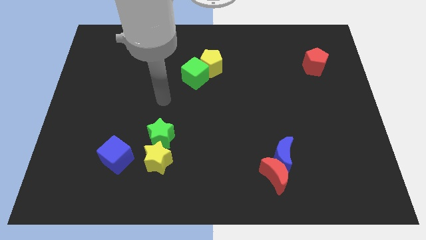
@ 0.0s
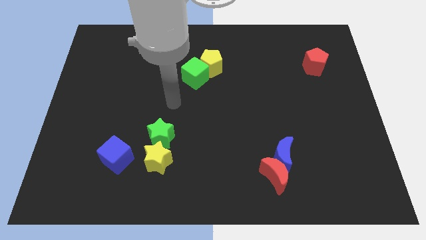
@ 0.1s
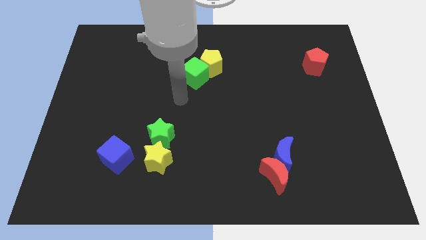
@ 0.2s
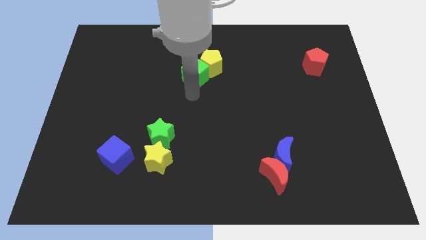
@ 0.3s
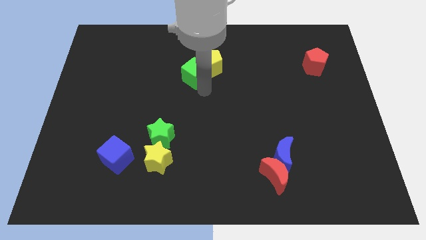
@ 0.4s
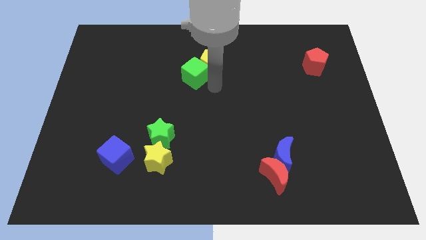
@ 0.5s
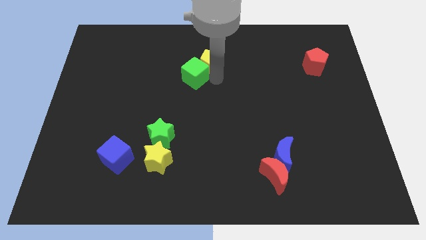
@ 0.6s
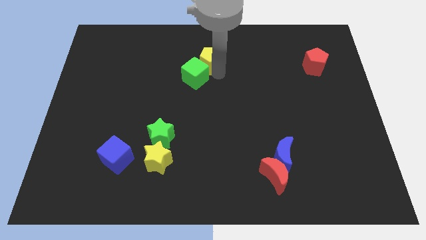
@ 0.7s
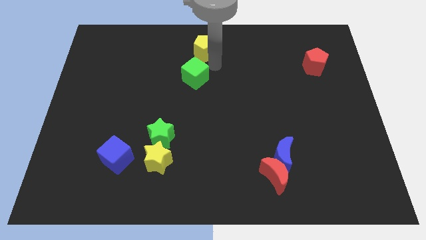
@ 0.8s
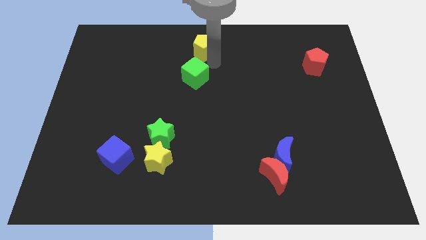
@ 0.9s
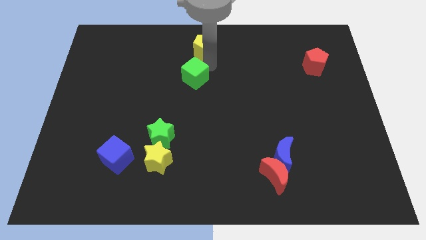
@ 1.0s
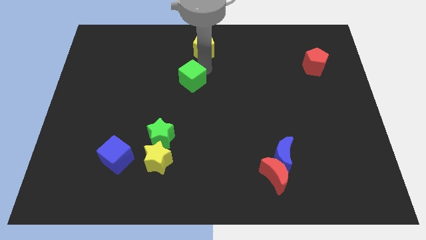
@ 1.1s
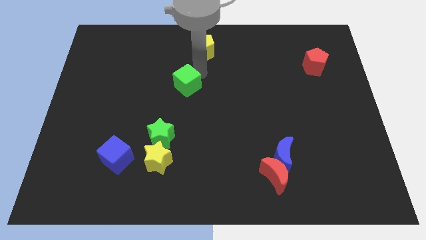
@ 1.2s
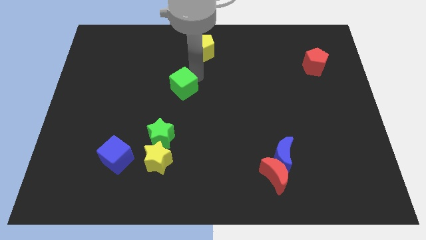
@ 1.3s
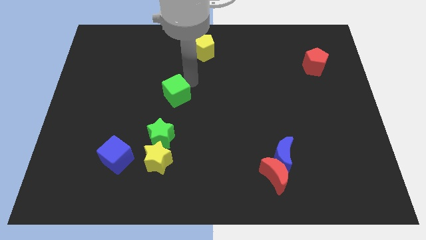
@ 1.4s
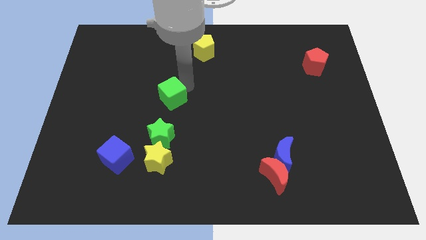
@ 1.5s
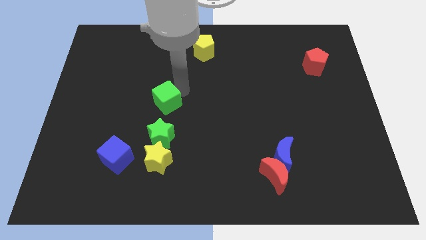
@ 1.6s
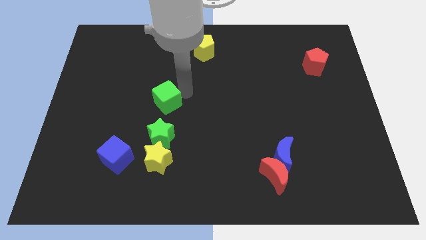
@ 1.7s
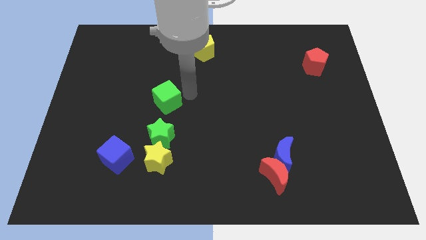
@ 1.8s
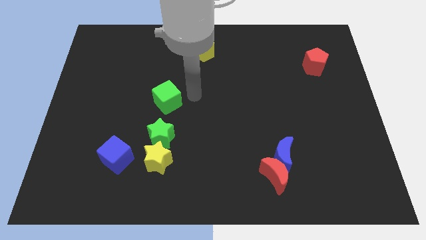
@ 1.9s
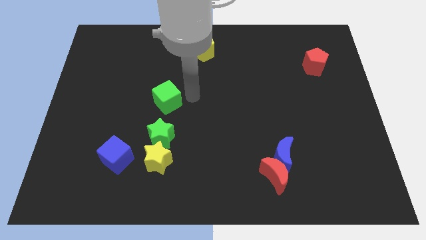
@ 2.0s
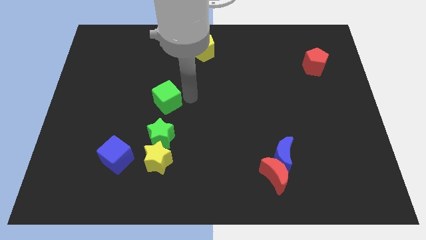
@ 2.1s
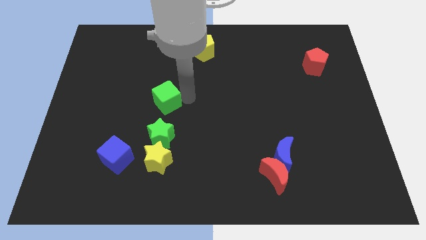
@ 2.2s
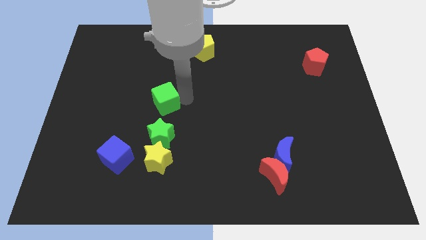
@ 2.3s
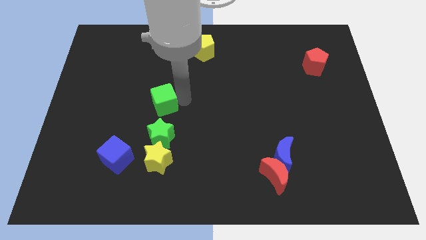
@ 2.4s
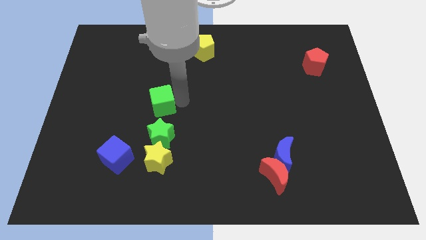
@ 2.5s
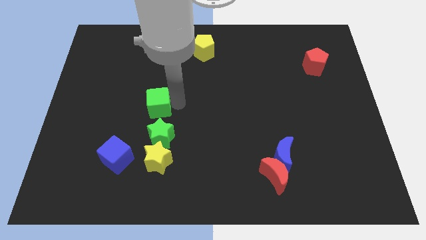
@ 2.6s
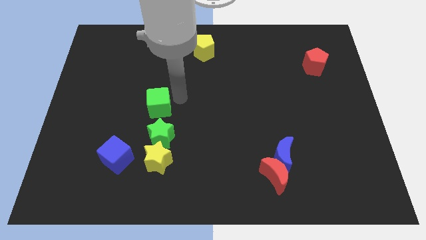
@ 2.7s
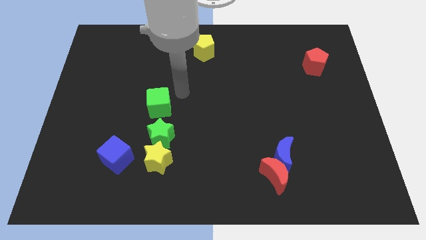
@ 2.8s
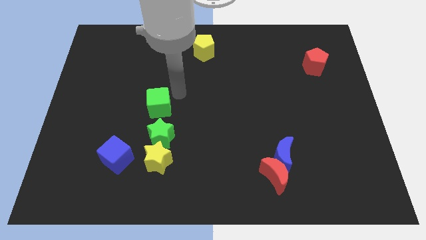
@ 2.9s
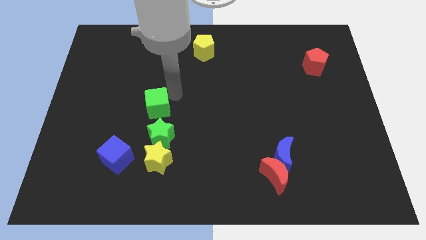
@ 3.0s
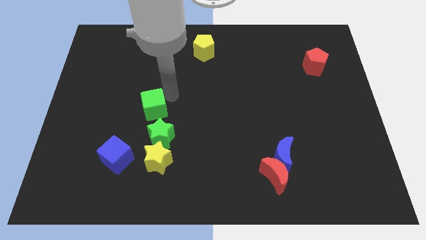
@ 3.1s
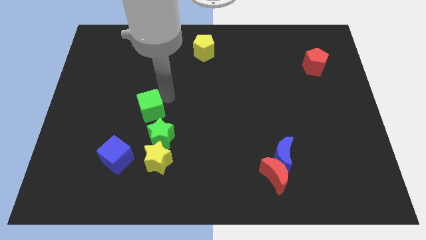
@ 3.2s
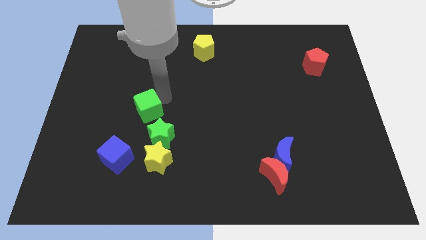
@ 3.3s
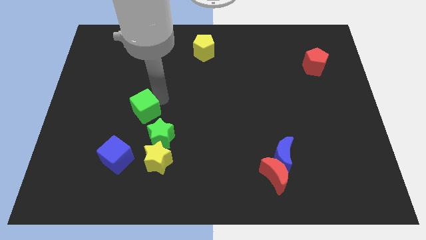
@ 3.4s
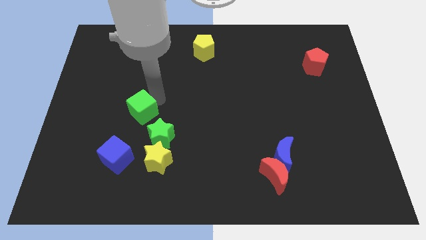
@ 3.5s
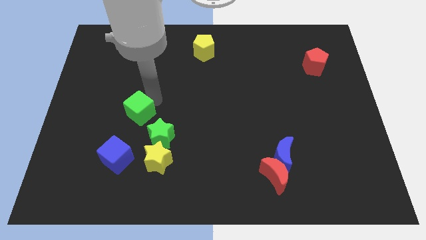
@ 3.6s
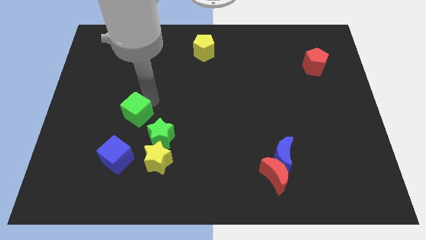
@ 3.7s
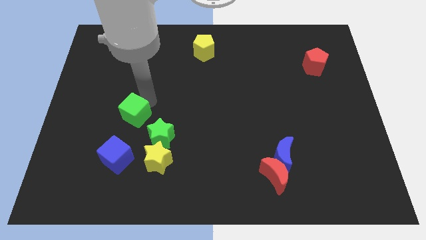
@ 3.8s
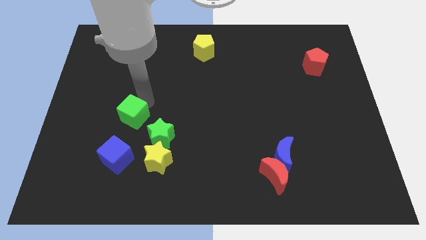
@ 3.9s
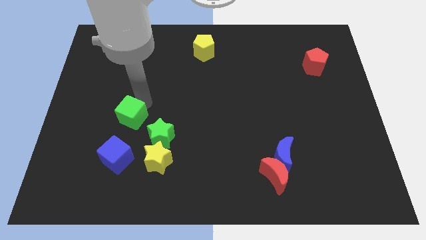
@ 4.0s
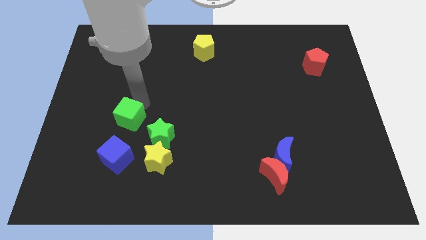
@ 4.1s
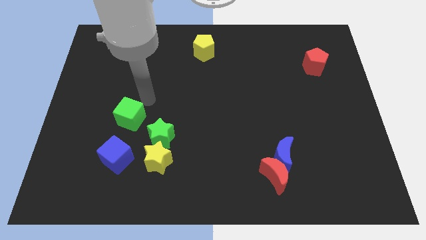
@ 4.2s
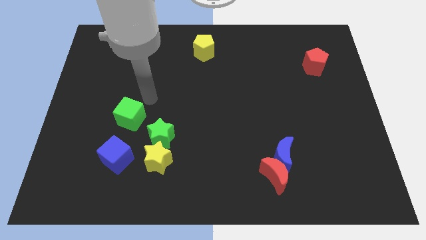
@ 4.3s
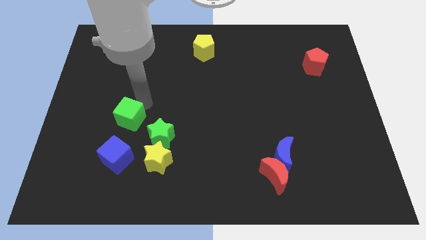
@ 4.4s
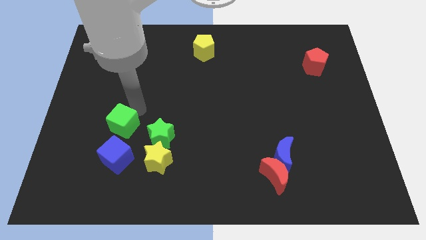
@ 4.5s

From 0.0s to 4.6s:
slide the green cube downwards and then to the left

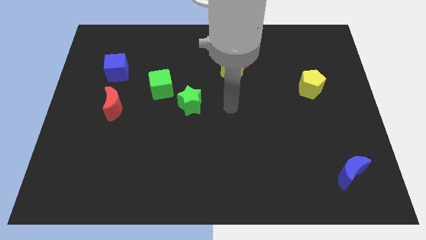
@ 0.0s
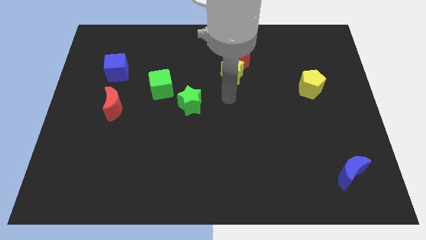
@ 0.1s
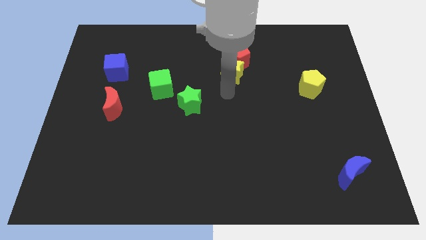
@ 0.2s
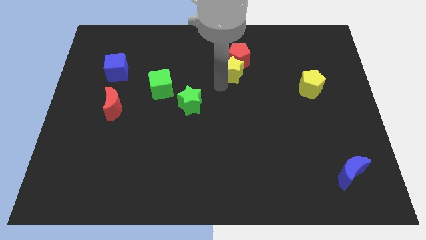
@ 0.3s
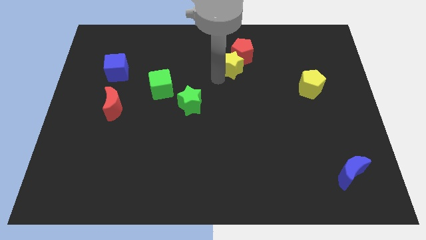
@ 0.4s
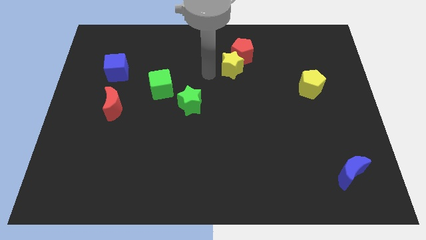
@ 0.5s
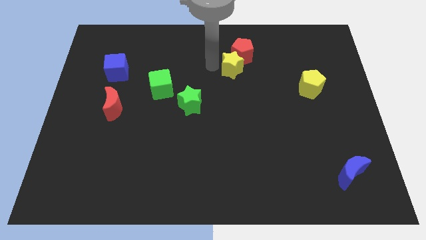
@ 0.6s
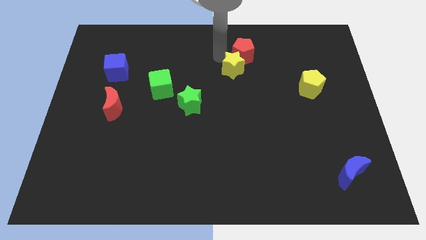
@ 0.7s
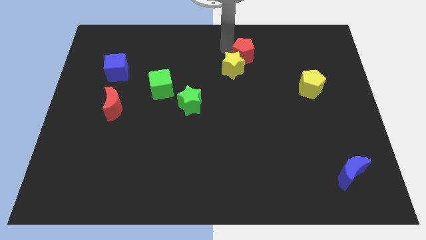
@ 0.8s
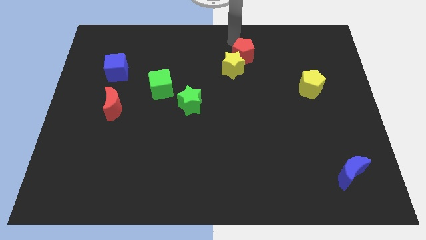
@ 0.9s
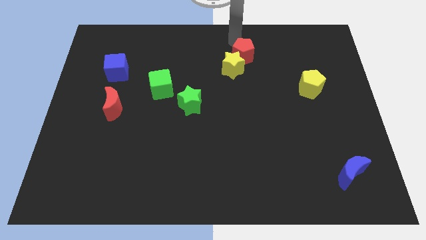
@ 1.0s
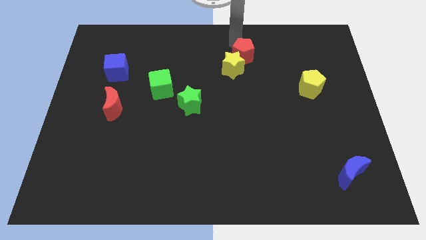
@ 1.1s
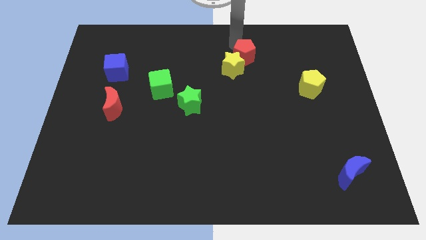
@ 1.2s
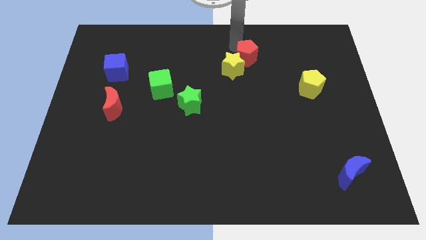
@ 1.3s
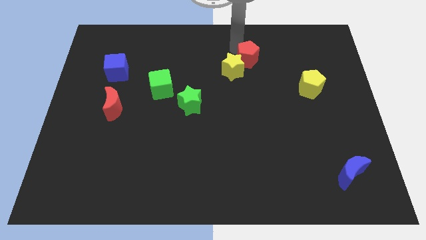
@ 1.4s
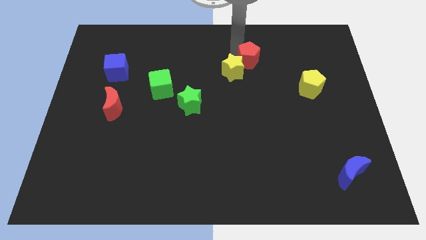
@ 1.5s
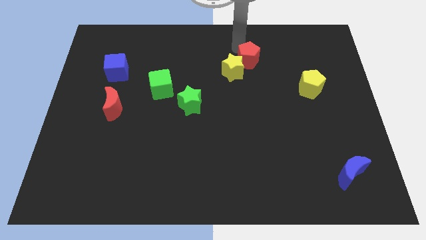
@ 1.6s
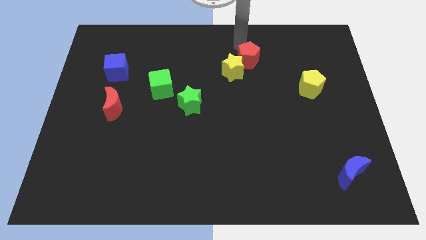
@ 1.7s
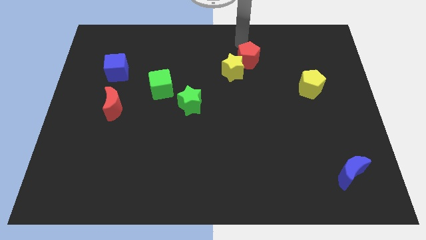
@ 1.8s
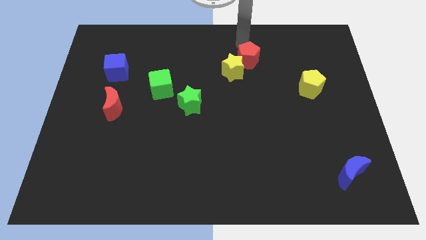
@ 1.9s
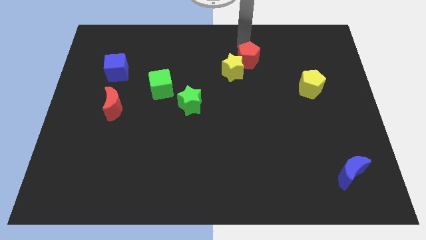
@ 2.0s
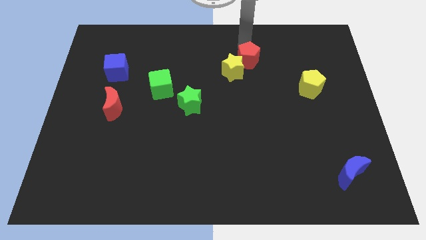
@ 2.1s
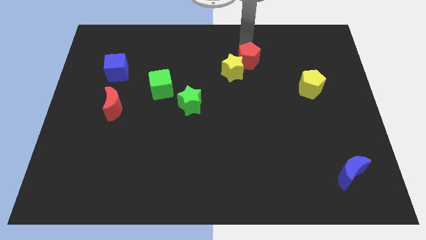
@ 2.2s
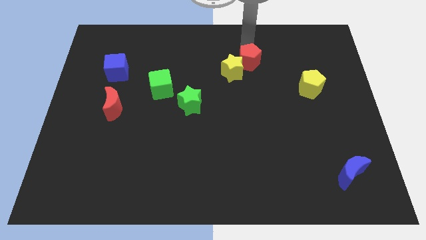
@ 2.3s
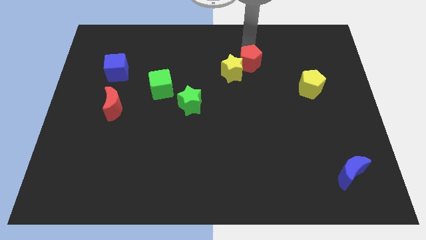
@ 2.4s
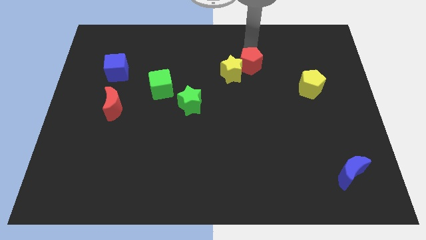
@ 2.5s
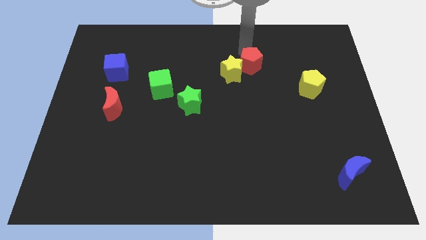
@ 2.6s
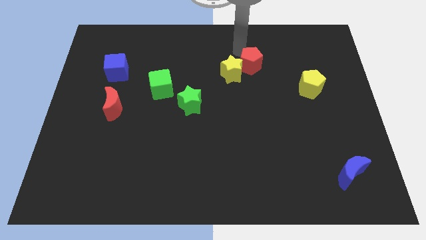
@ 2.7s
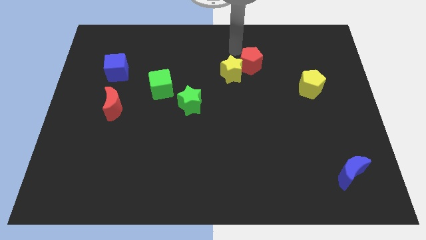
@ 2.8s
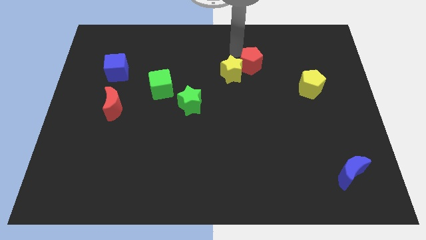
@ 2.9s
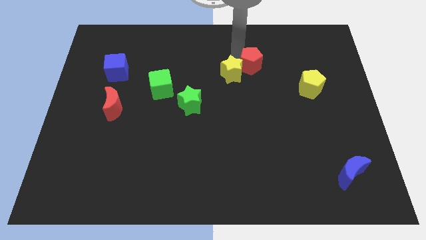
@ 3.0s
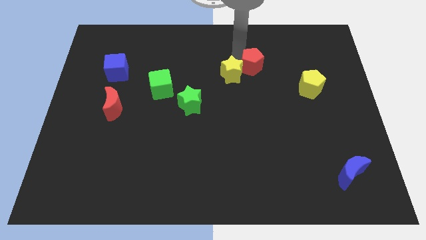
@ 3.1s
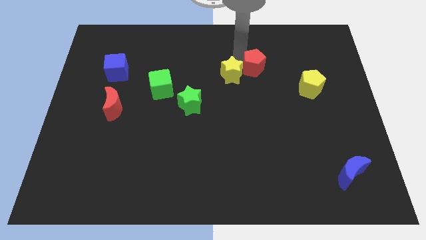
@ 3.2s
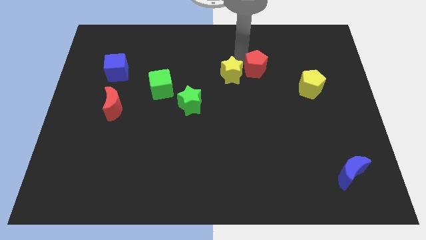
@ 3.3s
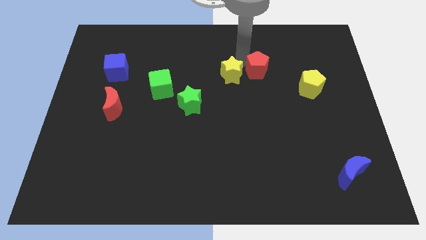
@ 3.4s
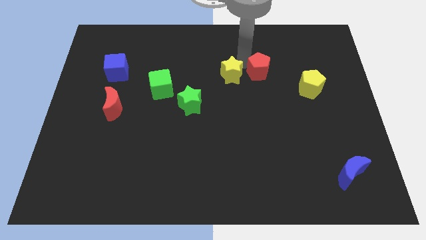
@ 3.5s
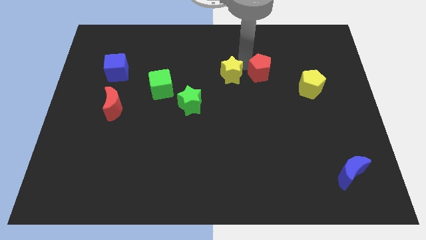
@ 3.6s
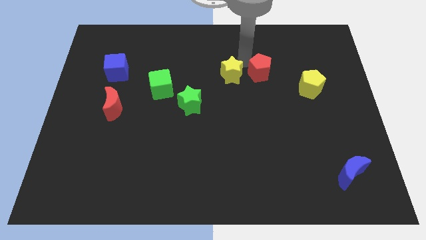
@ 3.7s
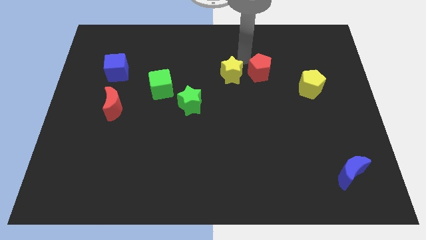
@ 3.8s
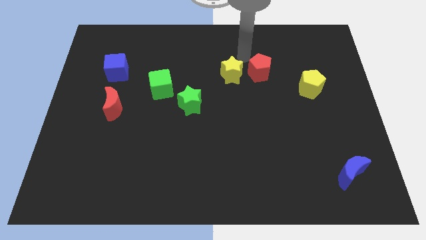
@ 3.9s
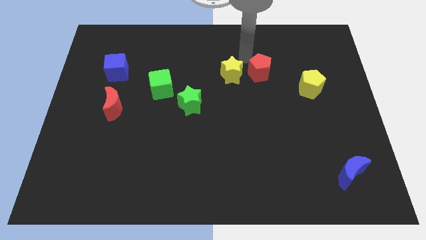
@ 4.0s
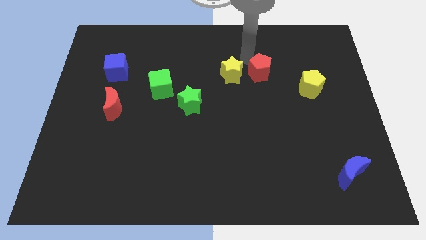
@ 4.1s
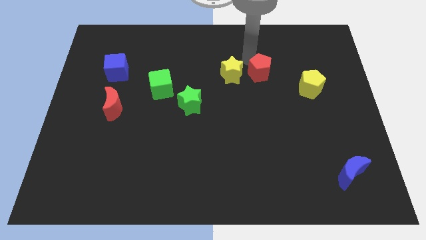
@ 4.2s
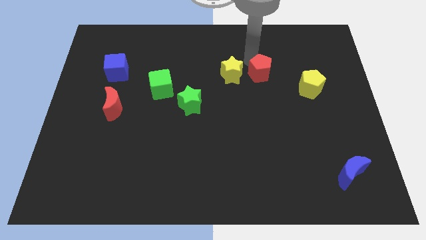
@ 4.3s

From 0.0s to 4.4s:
slightly push the red pentagon downwards and then right
